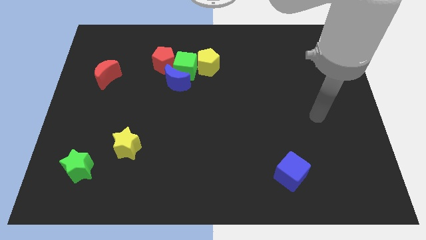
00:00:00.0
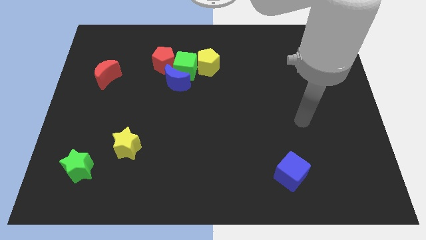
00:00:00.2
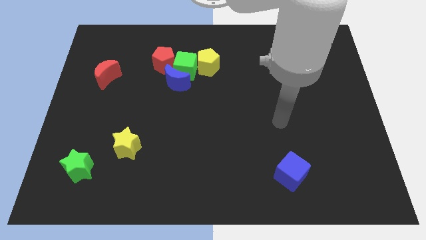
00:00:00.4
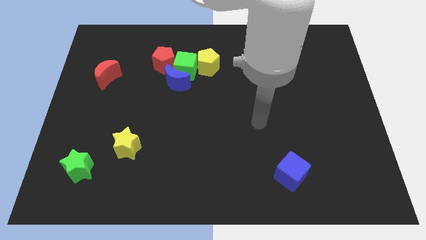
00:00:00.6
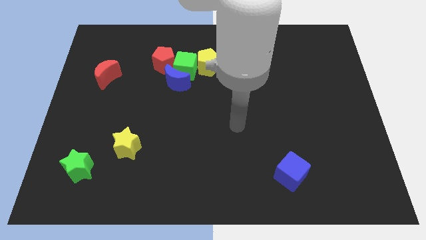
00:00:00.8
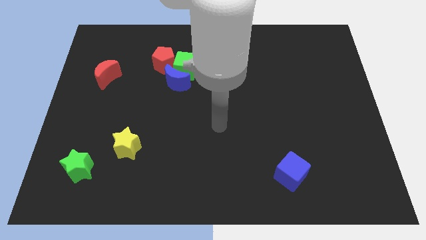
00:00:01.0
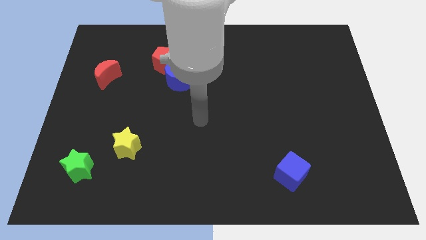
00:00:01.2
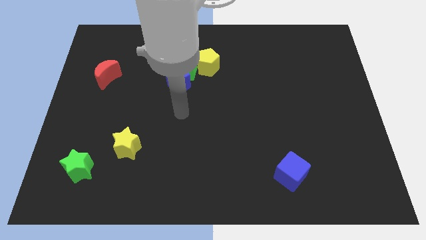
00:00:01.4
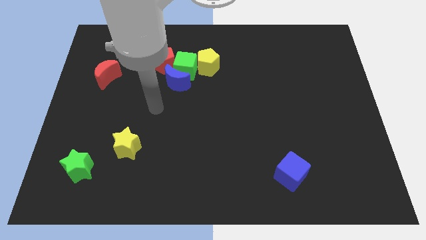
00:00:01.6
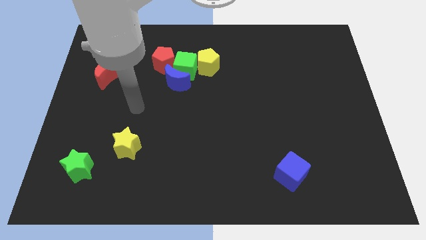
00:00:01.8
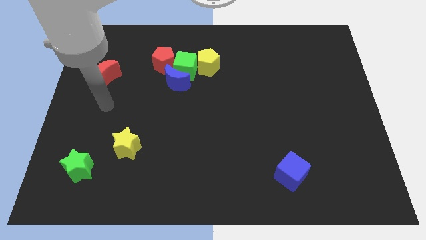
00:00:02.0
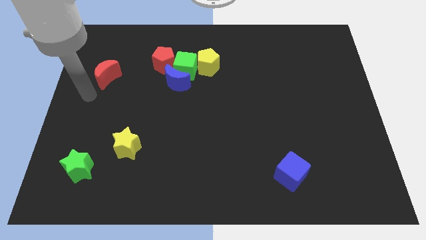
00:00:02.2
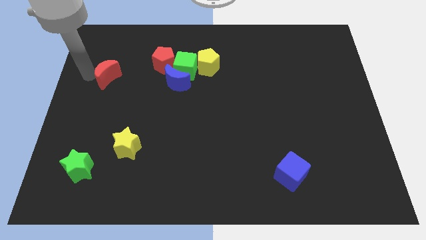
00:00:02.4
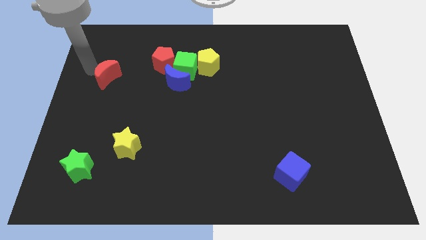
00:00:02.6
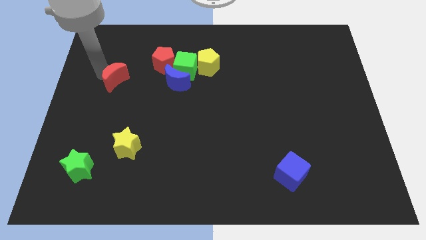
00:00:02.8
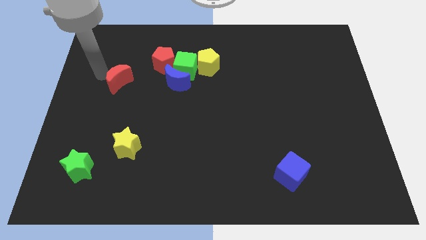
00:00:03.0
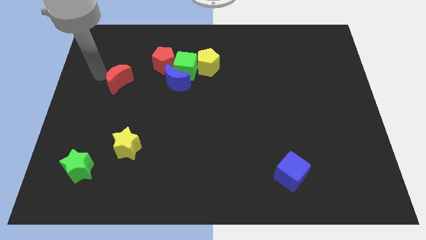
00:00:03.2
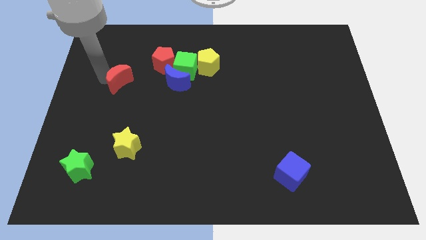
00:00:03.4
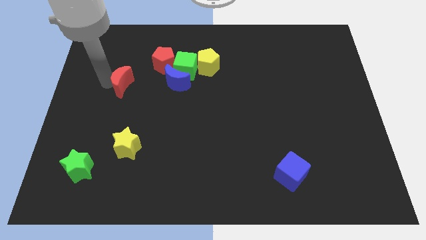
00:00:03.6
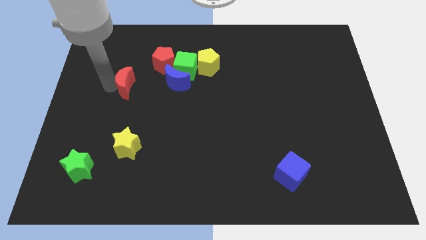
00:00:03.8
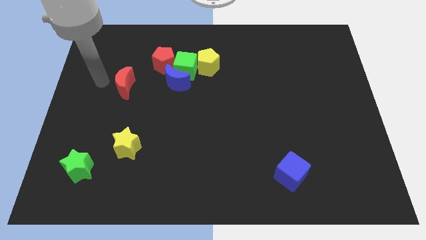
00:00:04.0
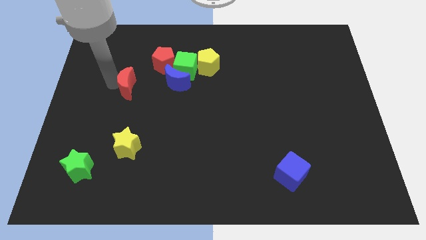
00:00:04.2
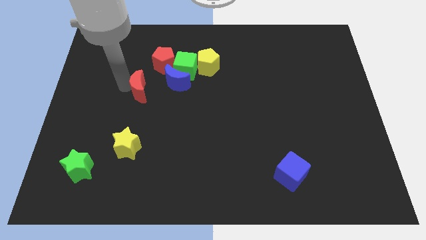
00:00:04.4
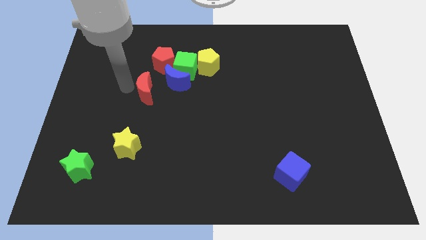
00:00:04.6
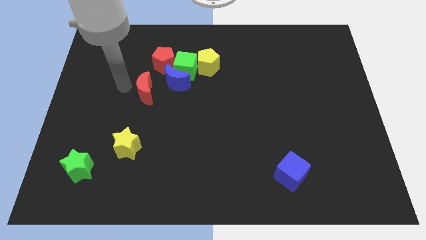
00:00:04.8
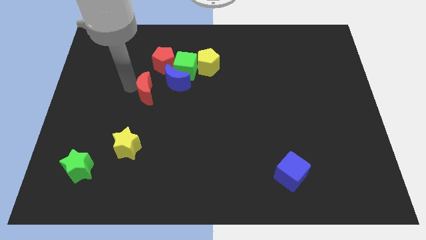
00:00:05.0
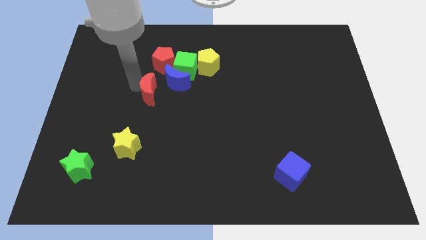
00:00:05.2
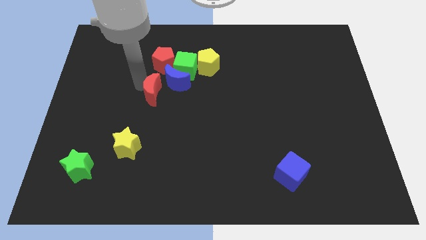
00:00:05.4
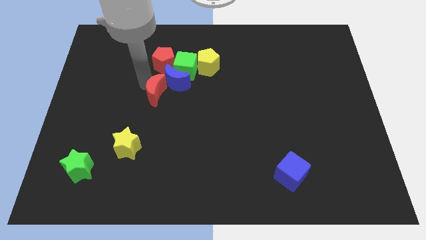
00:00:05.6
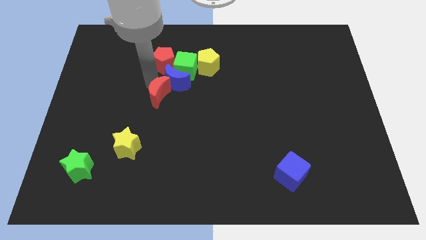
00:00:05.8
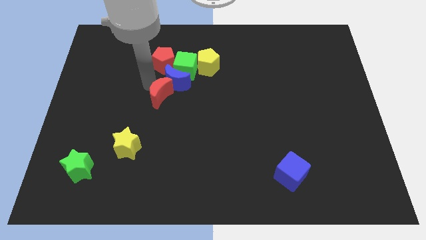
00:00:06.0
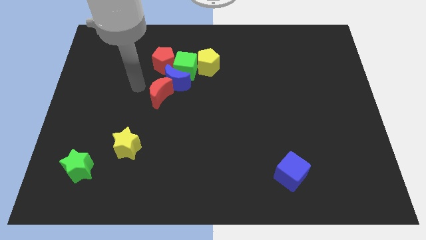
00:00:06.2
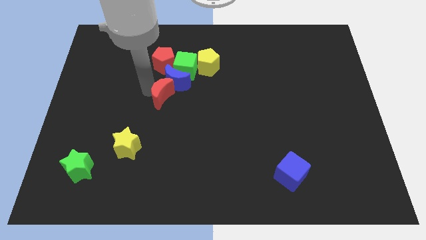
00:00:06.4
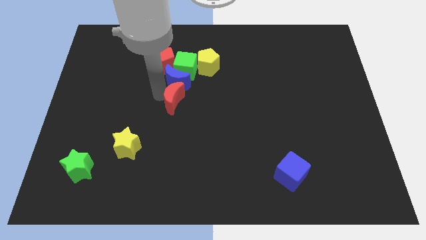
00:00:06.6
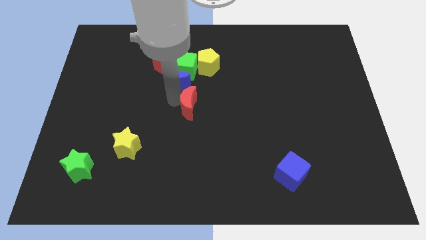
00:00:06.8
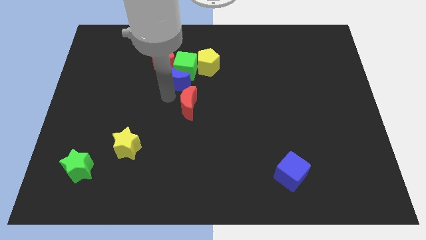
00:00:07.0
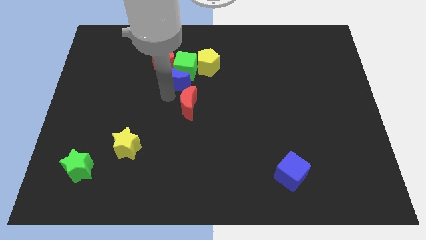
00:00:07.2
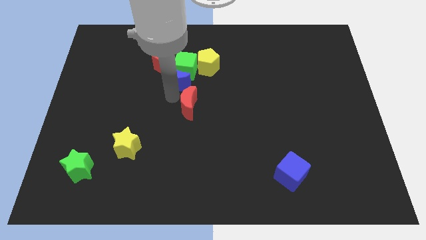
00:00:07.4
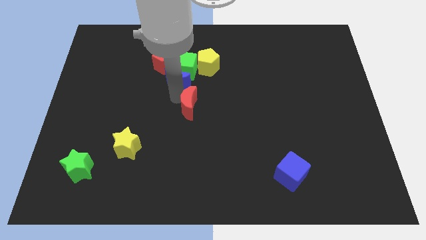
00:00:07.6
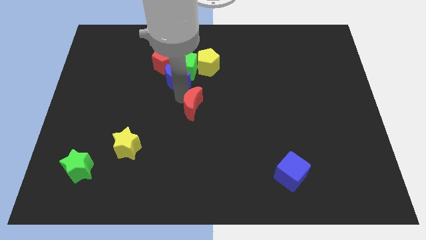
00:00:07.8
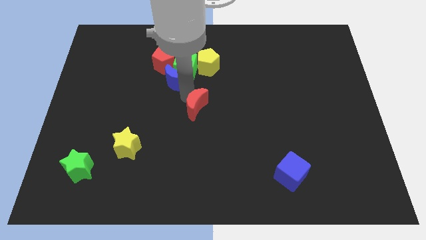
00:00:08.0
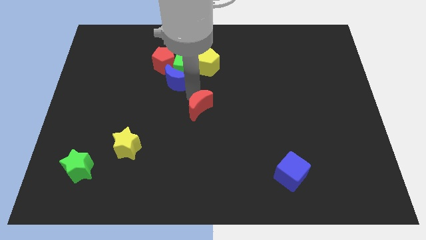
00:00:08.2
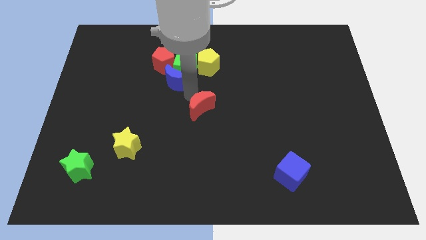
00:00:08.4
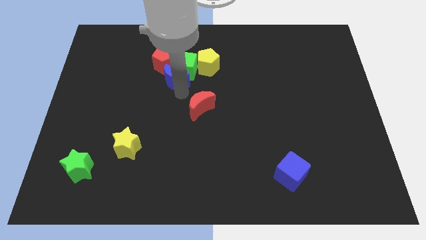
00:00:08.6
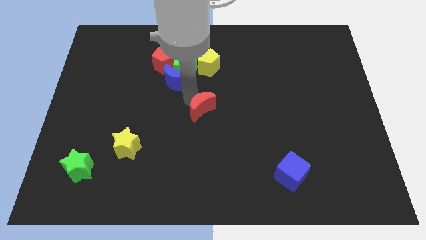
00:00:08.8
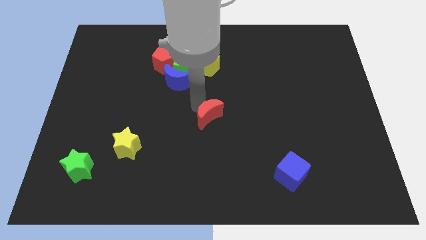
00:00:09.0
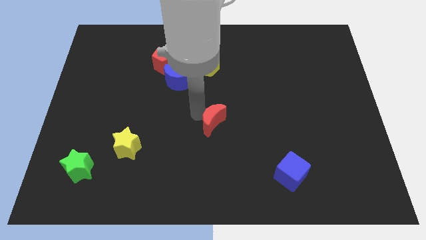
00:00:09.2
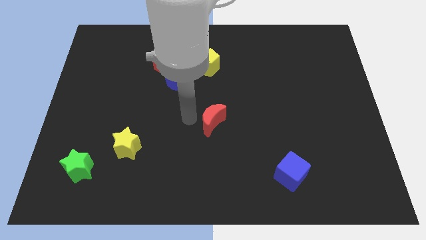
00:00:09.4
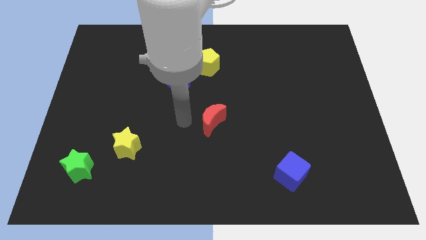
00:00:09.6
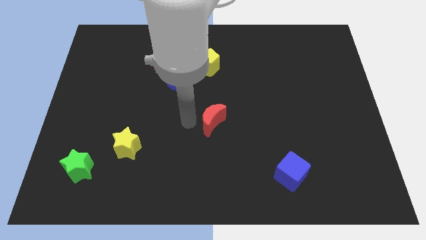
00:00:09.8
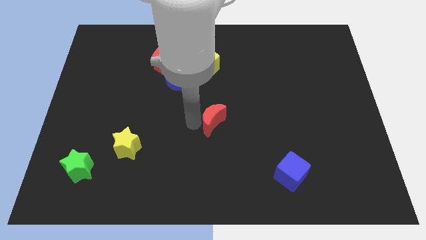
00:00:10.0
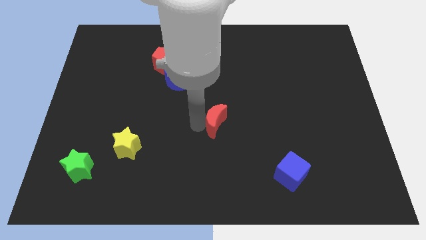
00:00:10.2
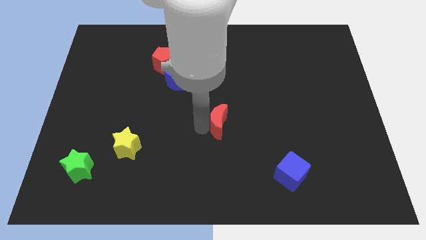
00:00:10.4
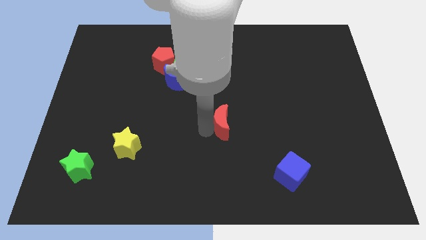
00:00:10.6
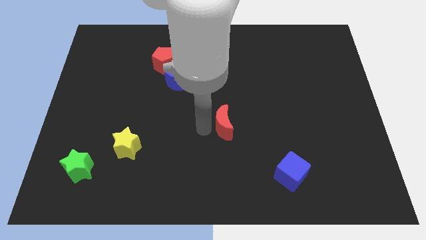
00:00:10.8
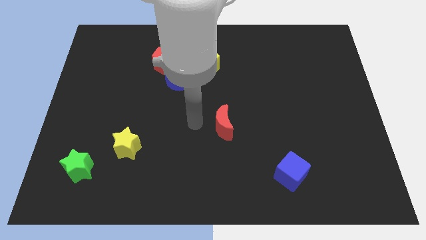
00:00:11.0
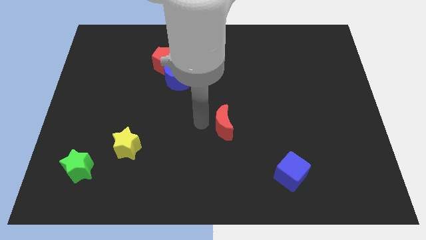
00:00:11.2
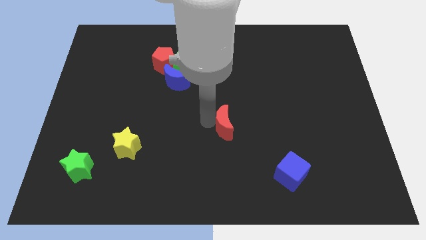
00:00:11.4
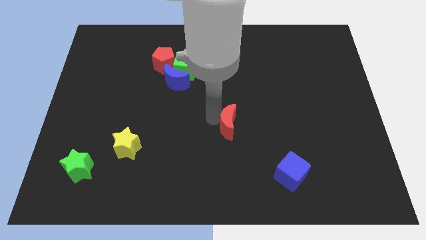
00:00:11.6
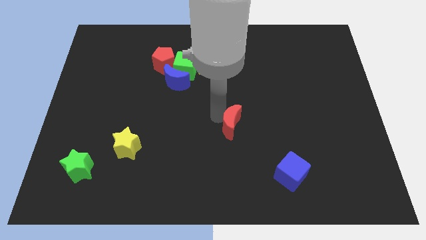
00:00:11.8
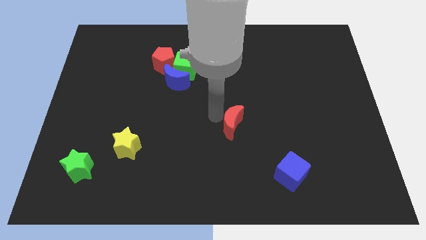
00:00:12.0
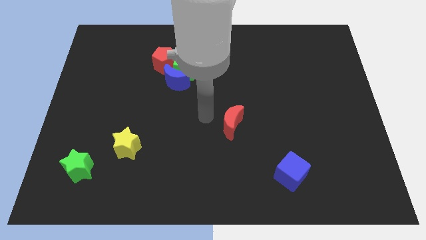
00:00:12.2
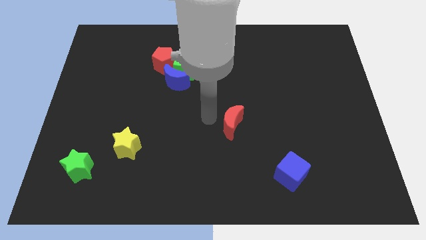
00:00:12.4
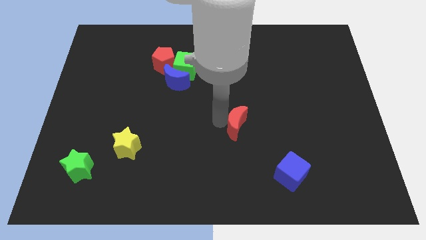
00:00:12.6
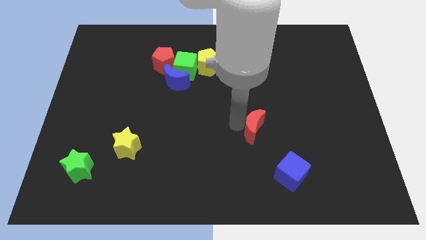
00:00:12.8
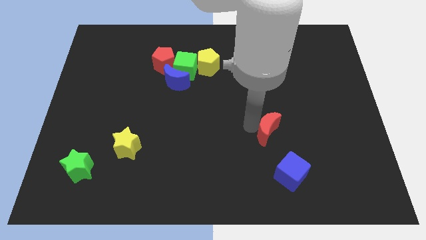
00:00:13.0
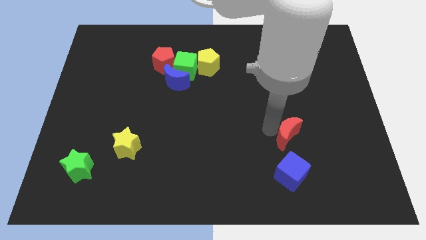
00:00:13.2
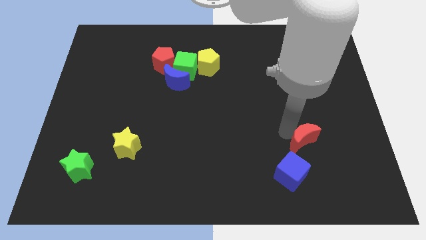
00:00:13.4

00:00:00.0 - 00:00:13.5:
slide the red moon to the top right of the blue cube

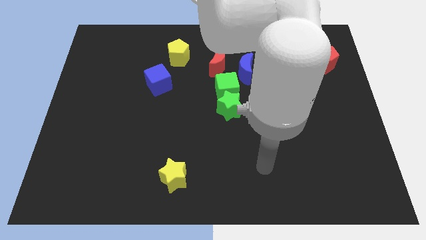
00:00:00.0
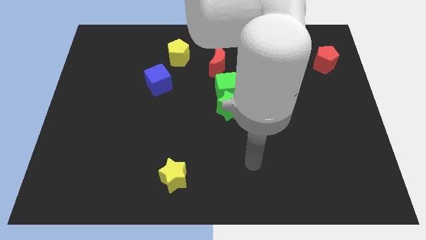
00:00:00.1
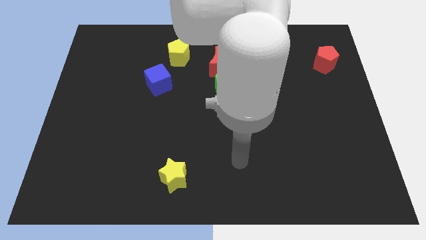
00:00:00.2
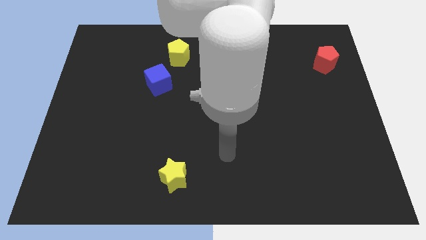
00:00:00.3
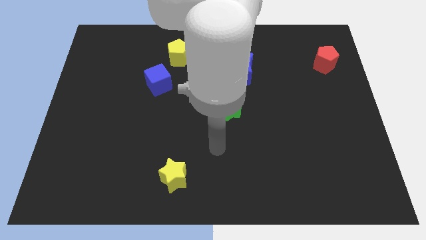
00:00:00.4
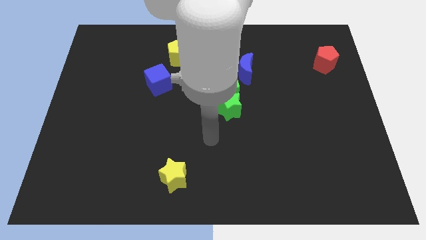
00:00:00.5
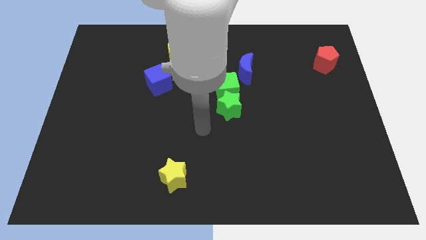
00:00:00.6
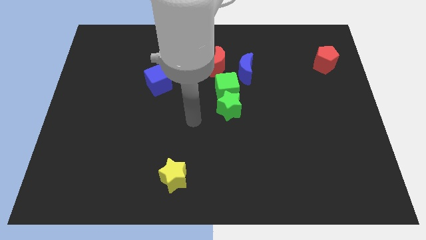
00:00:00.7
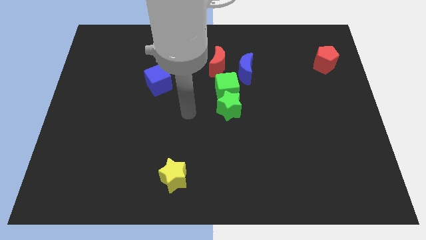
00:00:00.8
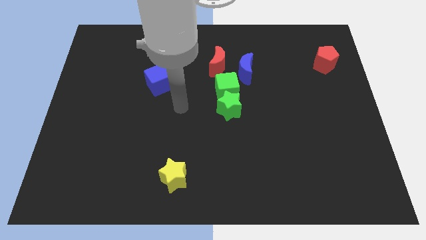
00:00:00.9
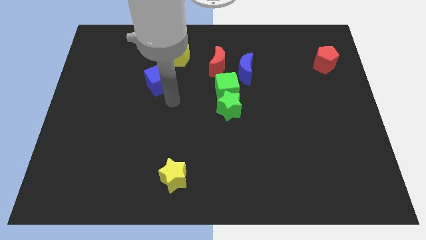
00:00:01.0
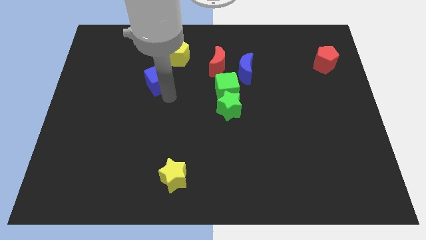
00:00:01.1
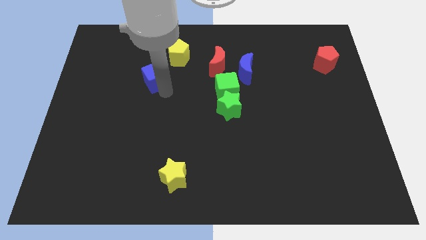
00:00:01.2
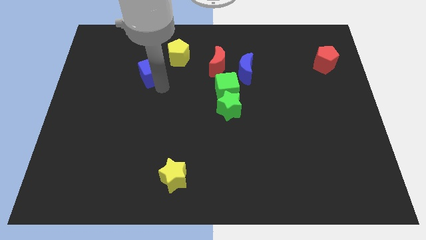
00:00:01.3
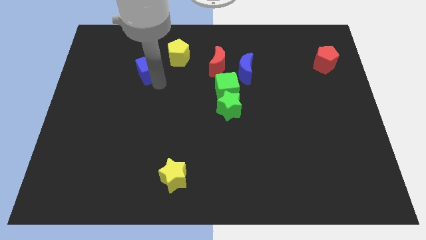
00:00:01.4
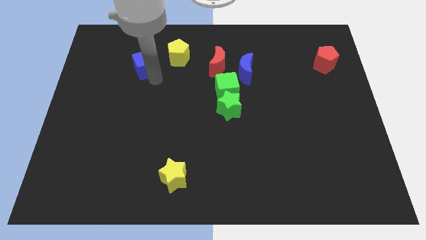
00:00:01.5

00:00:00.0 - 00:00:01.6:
slide the blue cube just left of the yellow pentagon
